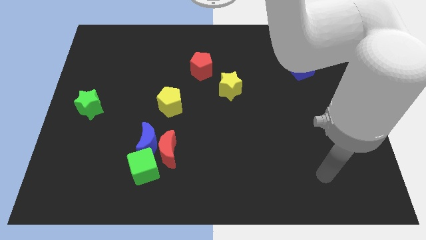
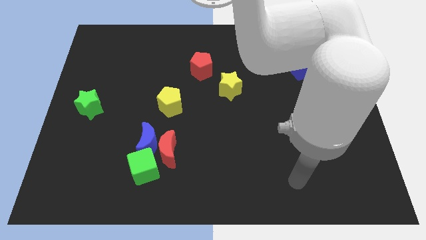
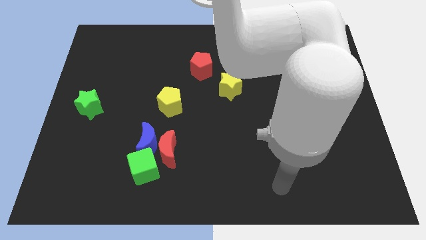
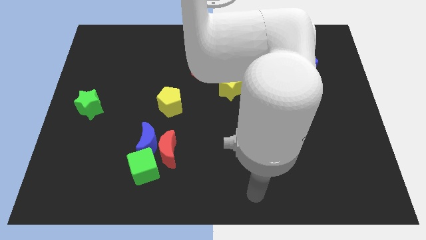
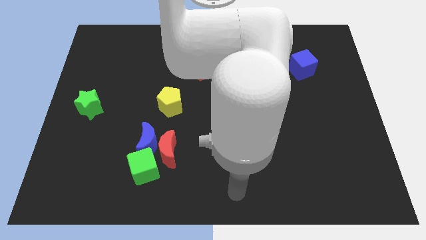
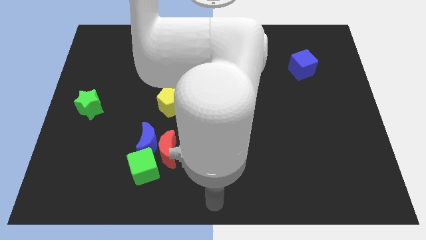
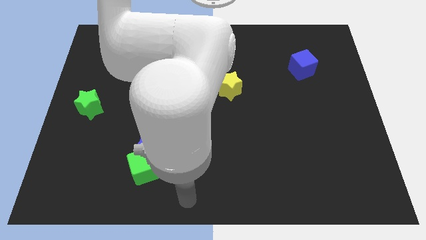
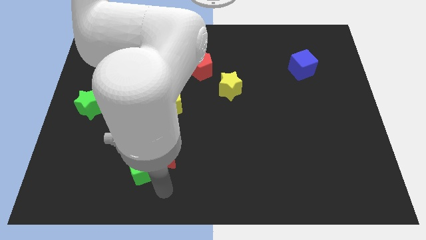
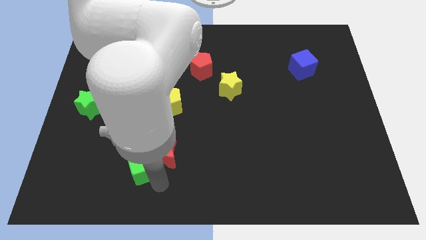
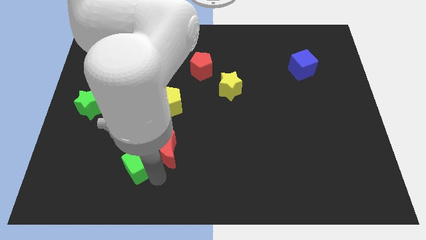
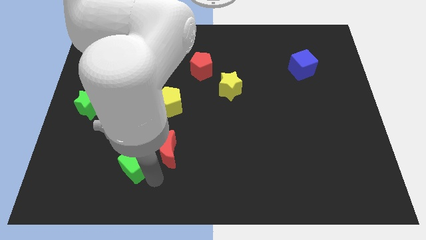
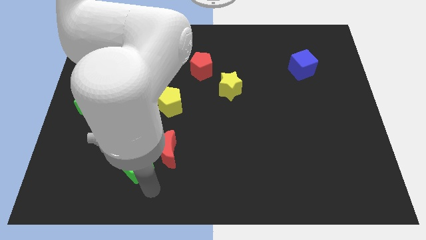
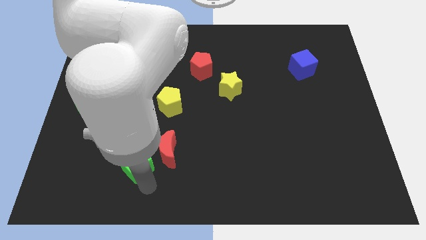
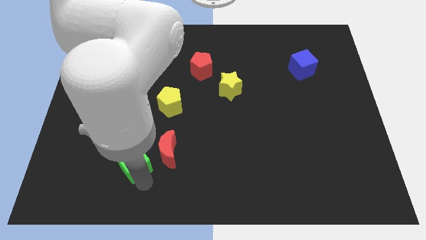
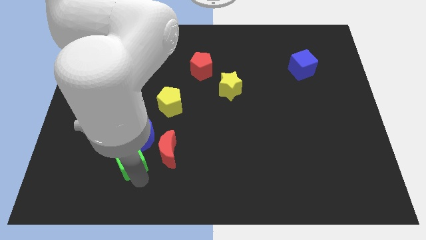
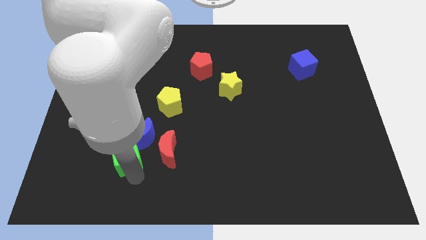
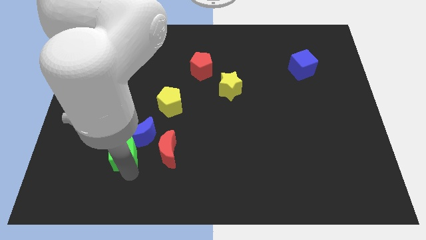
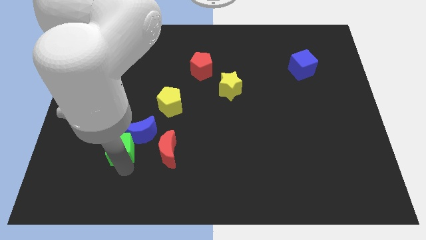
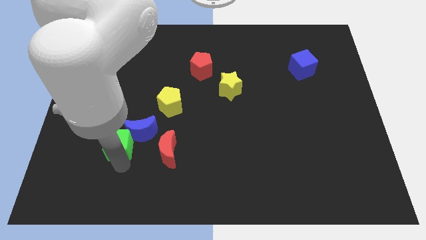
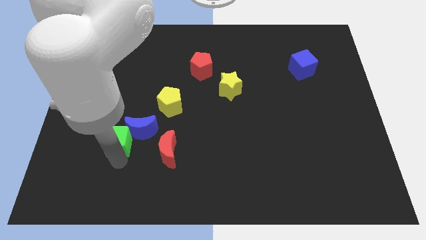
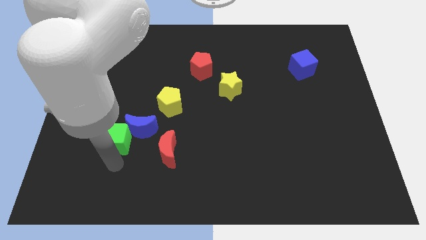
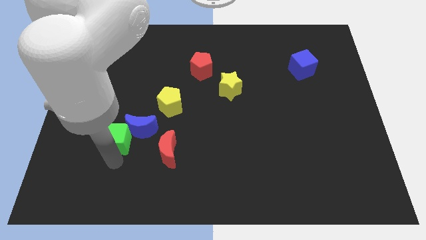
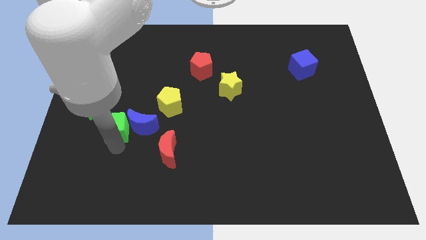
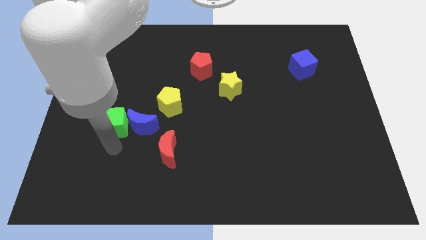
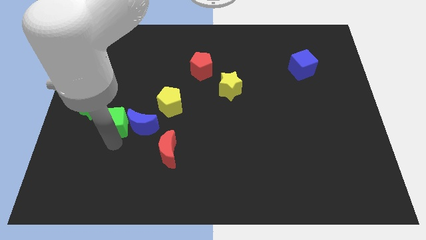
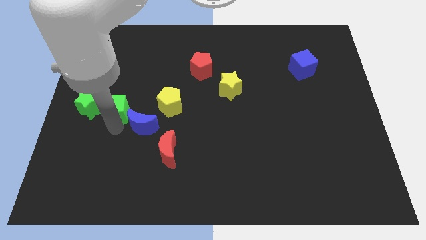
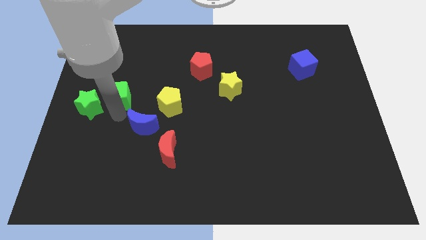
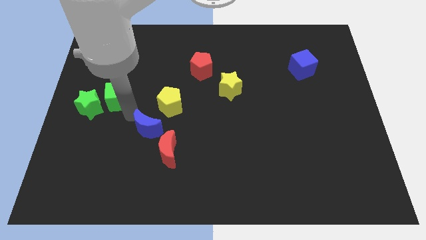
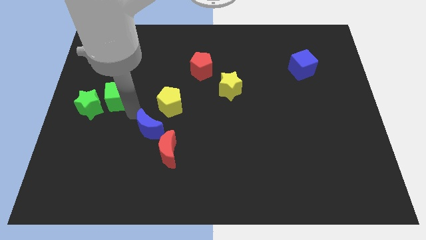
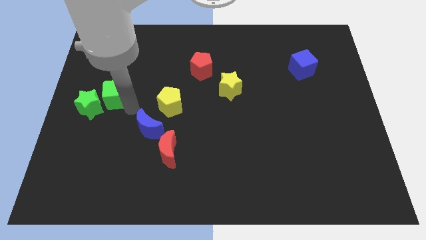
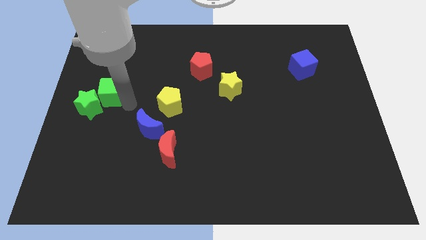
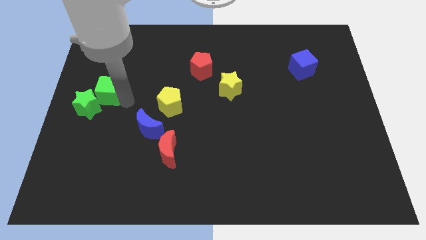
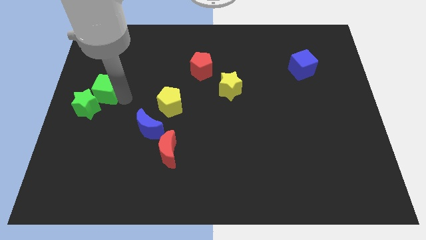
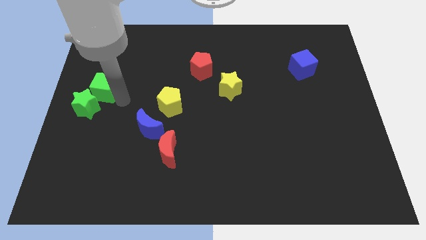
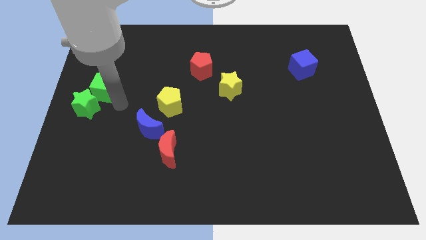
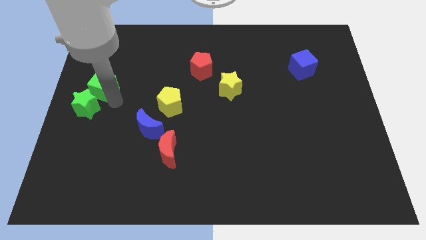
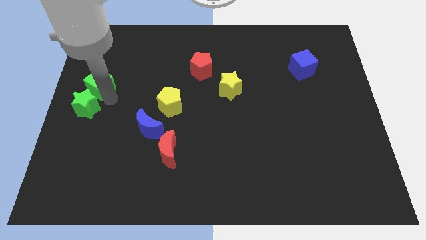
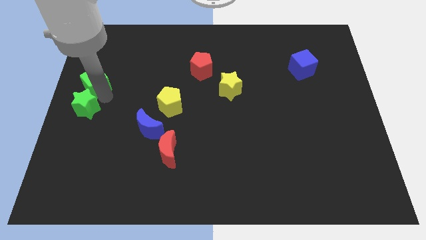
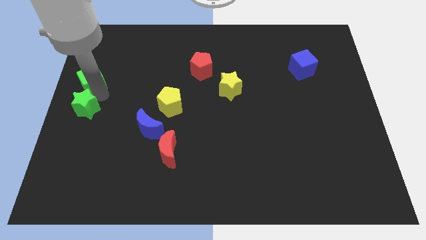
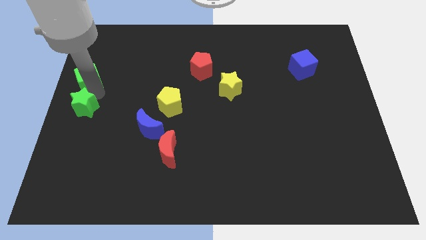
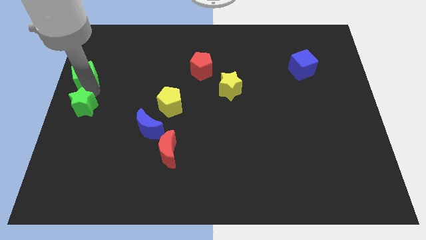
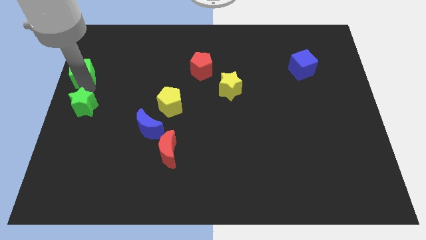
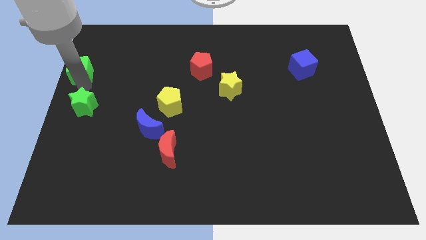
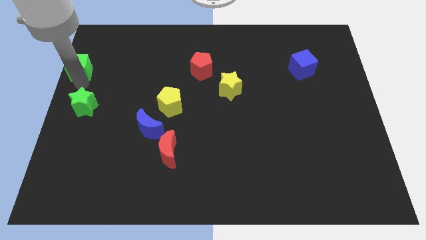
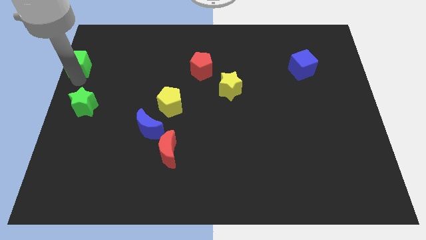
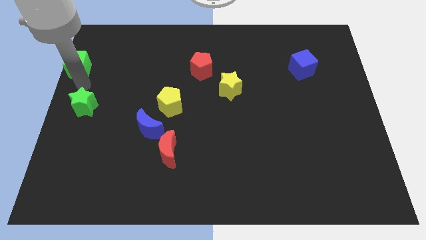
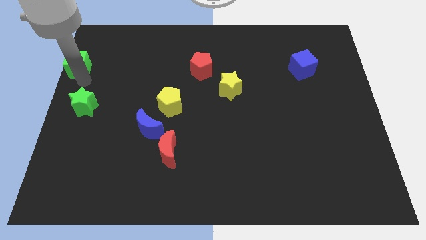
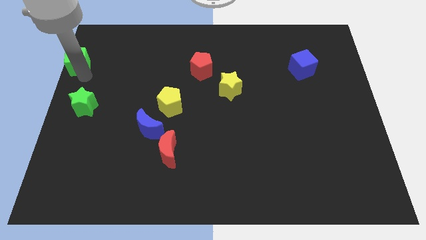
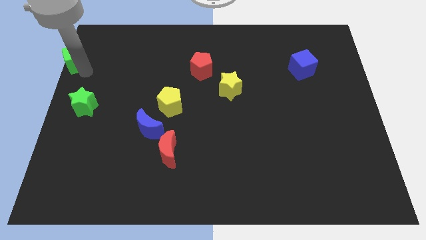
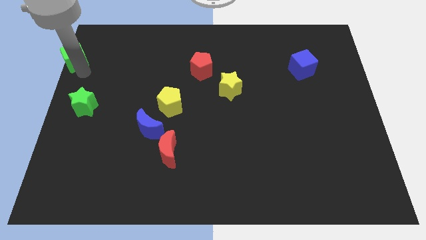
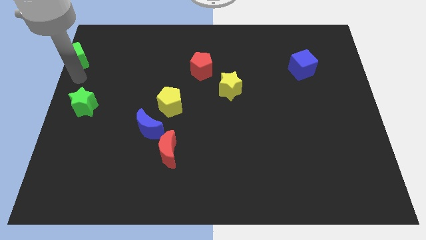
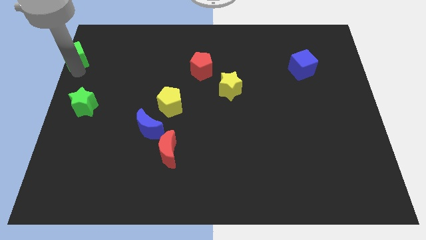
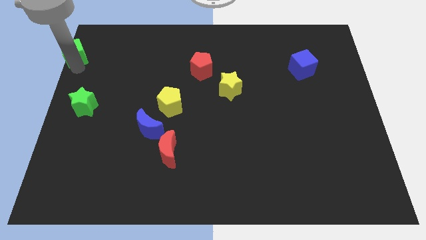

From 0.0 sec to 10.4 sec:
move the green cube to the upper left corner

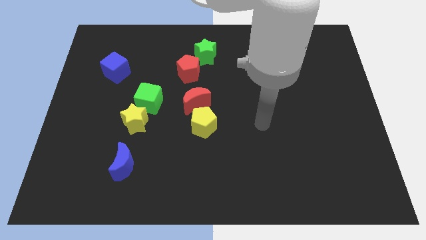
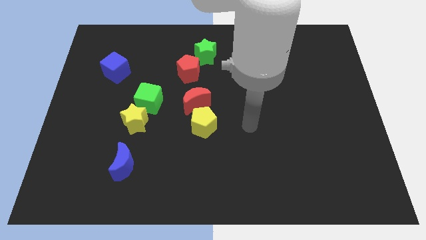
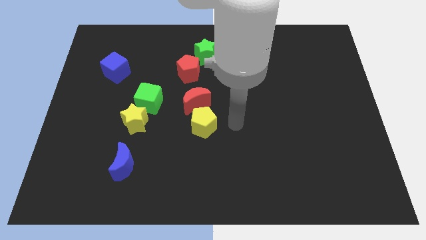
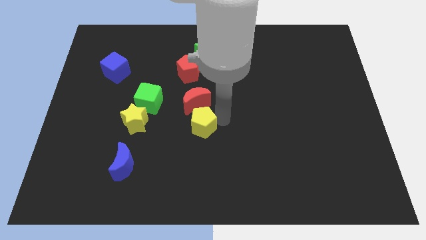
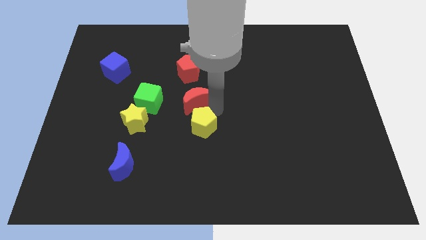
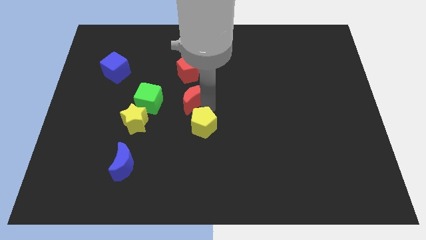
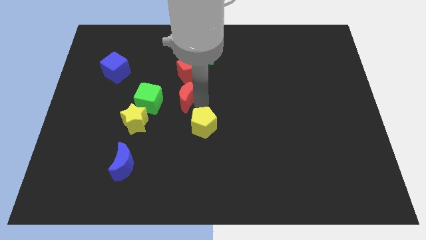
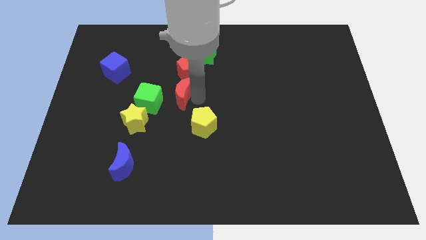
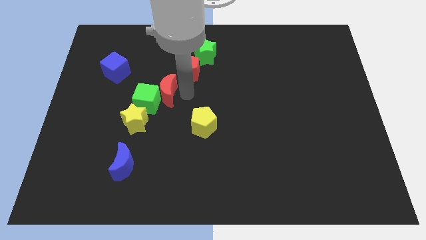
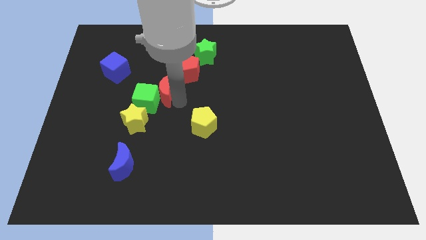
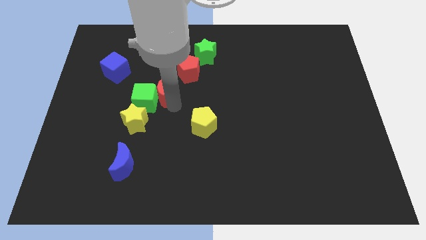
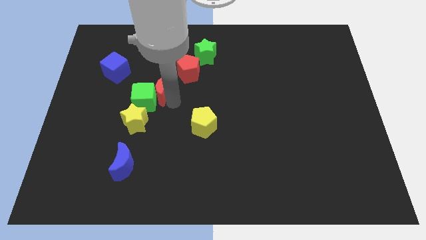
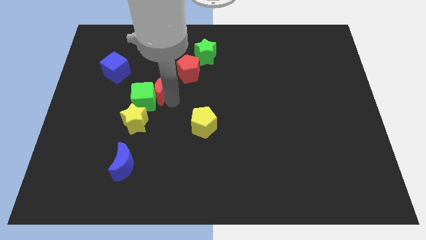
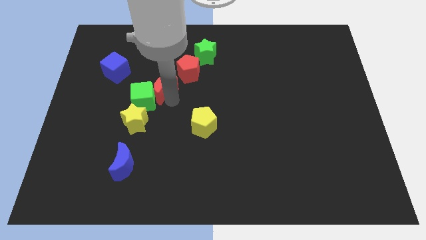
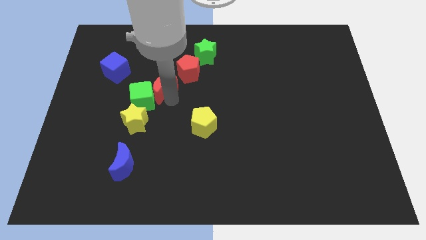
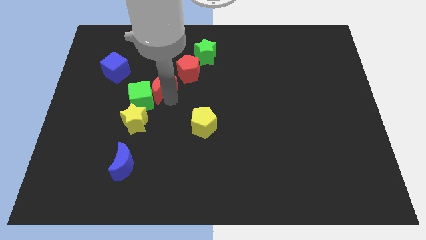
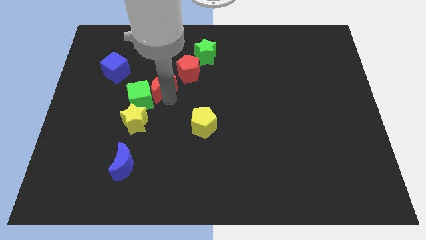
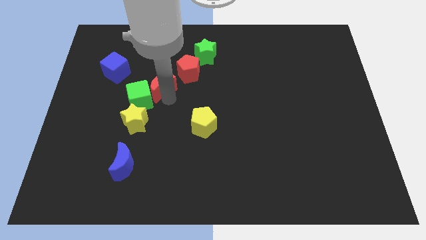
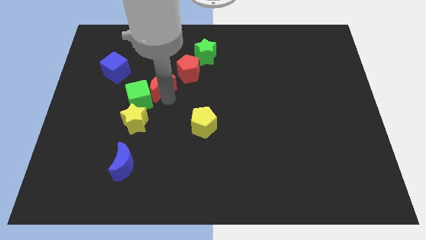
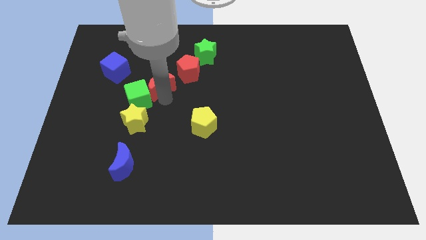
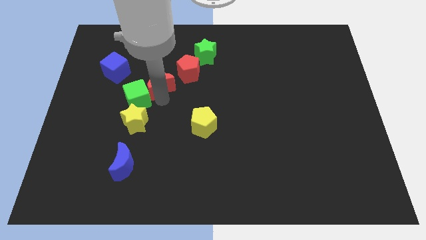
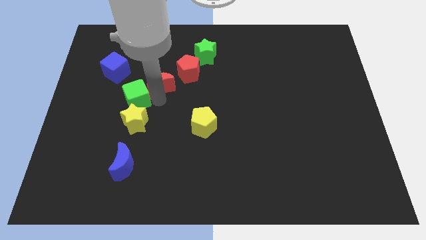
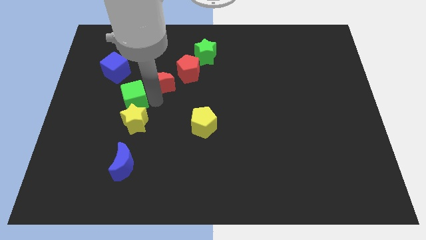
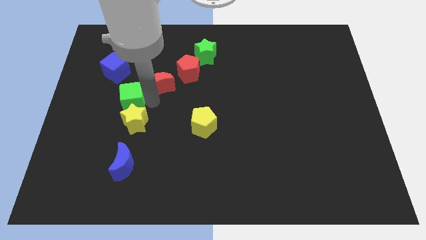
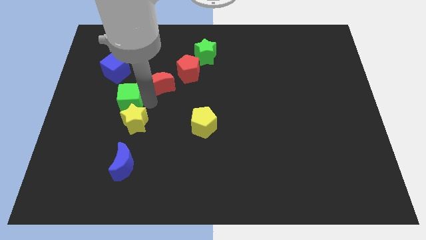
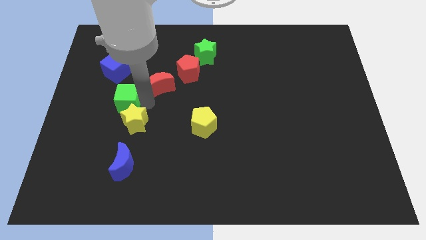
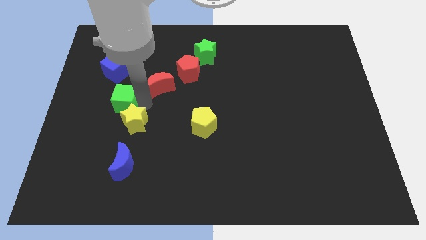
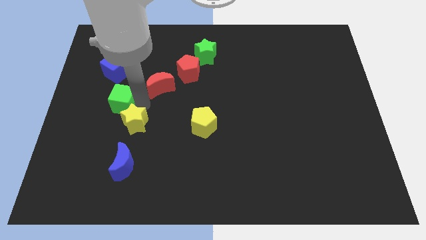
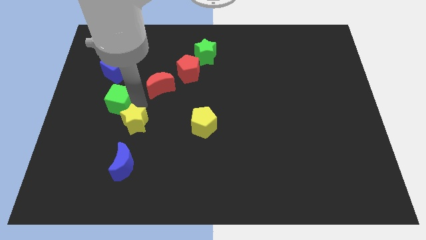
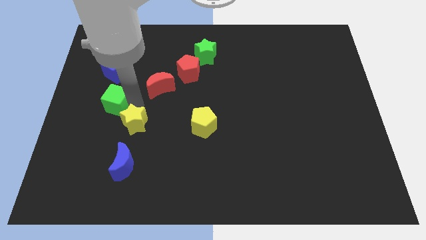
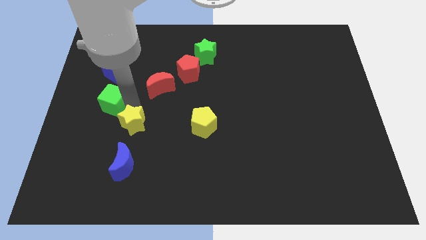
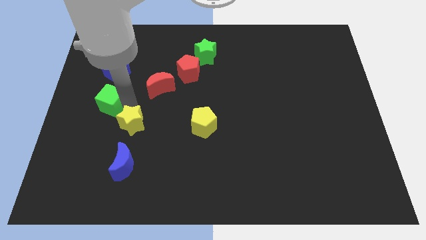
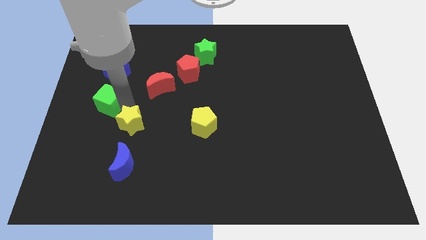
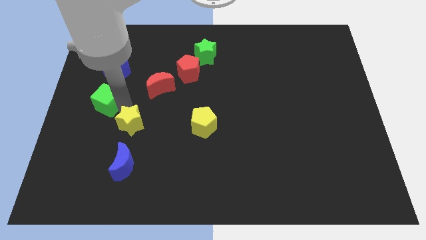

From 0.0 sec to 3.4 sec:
put the green cube to the left side
